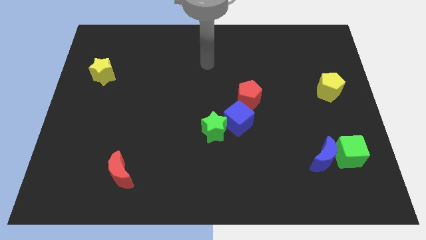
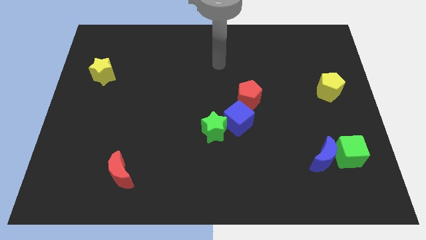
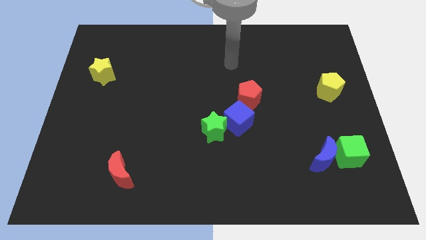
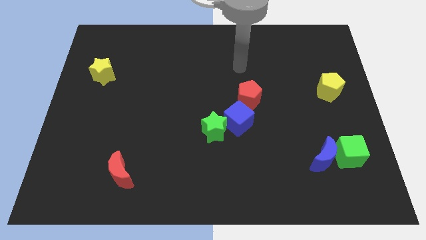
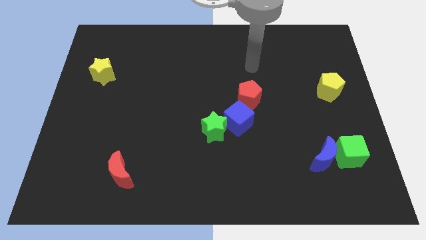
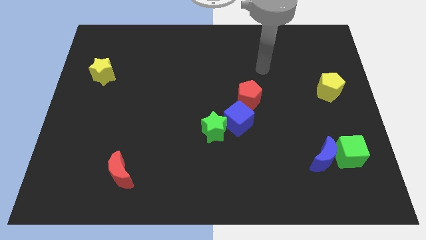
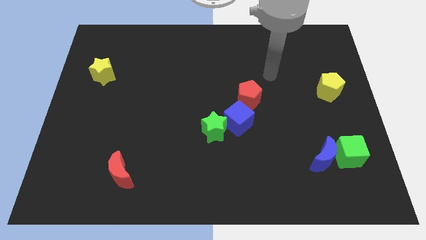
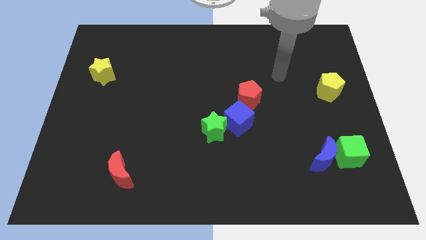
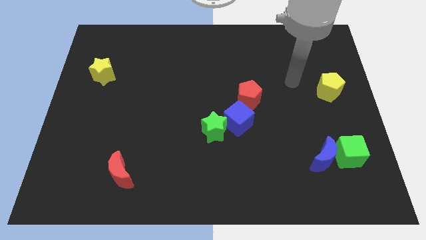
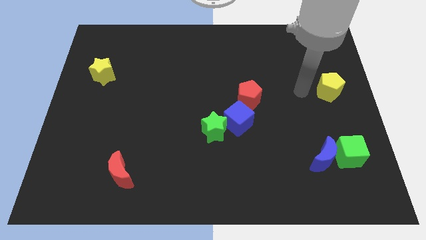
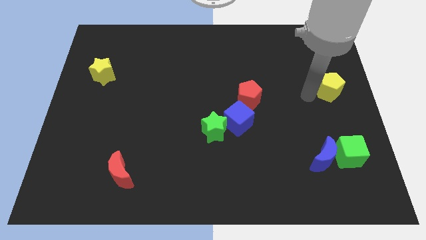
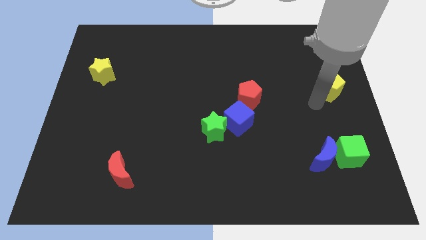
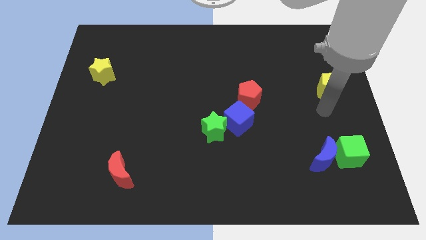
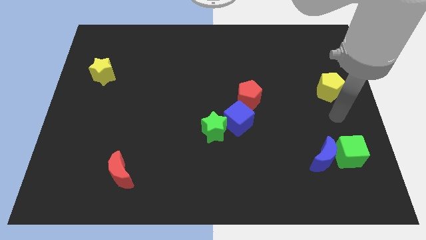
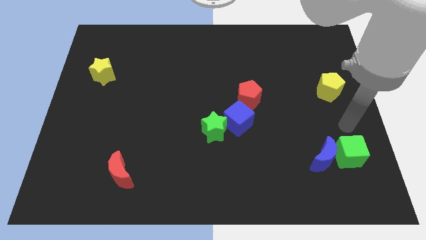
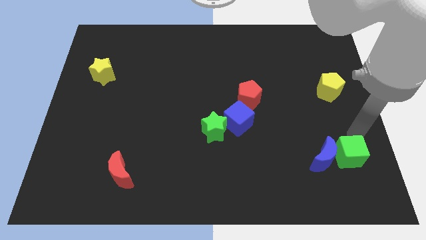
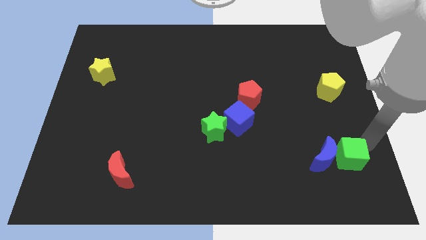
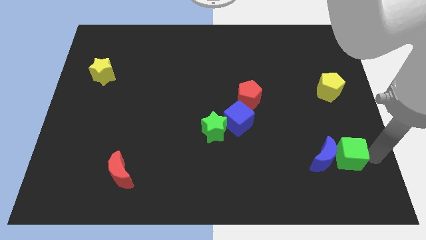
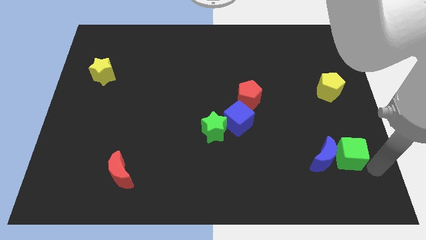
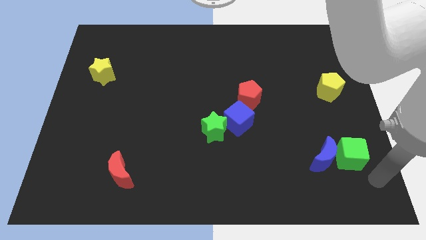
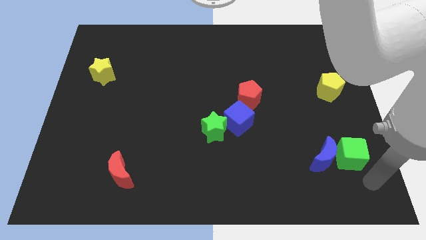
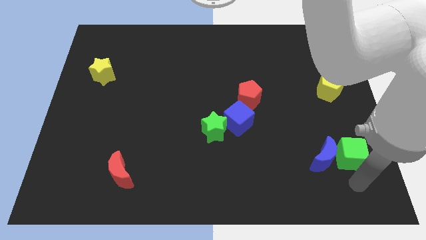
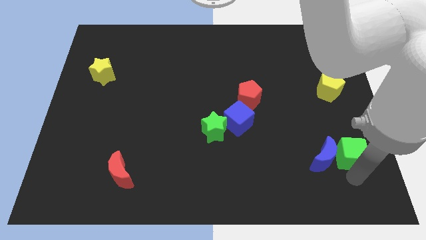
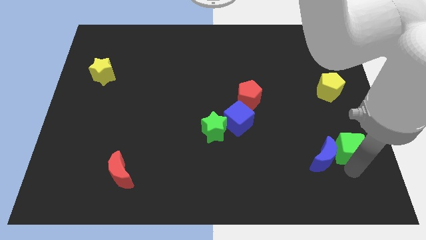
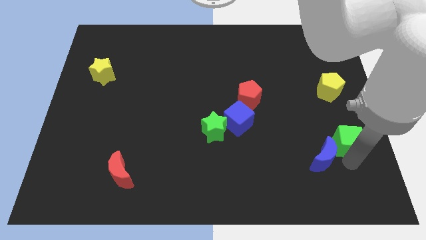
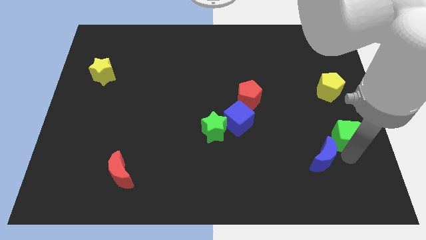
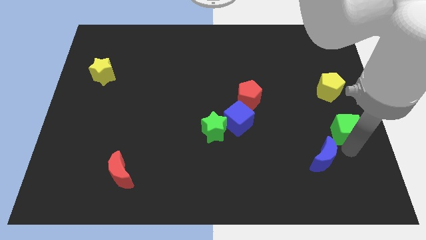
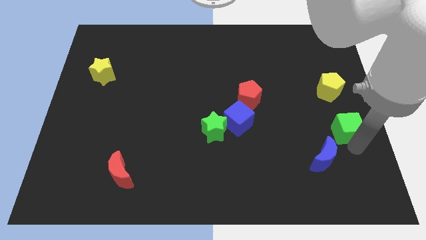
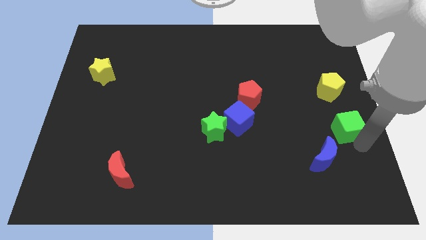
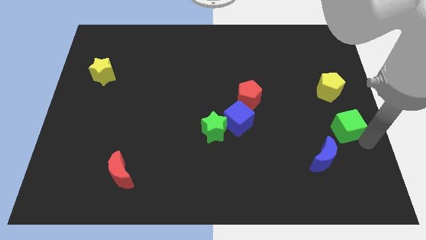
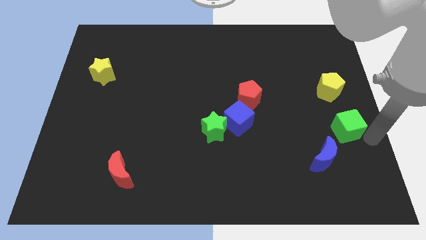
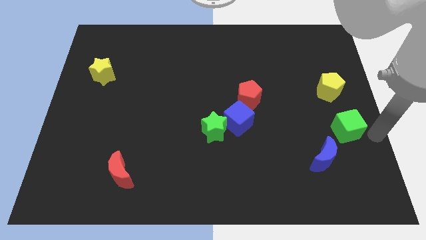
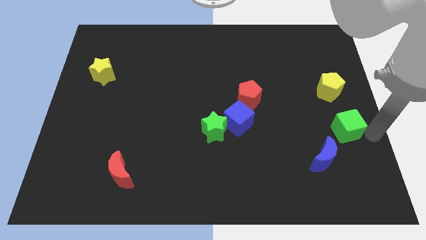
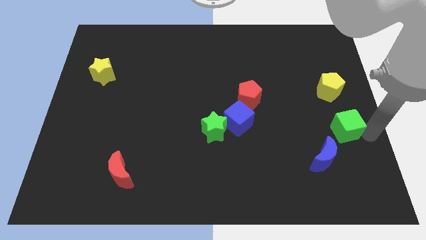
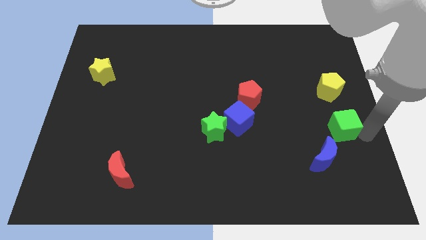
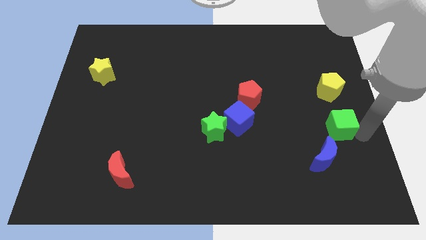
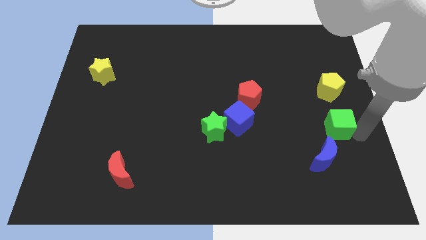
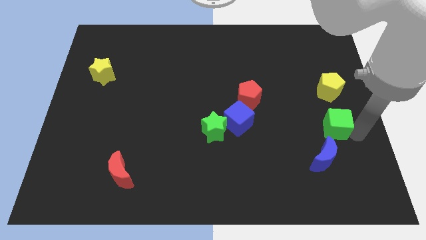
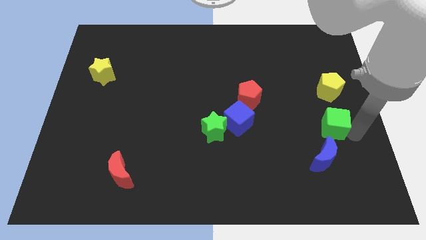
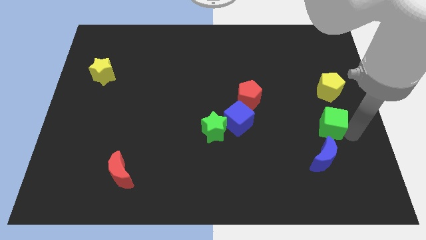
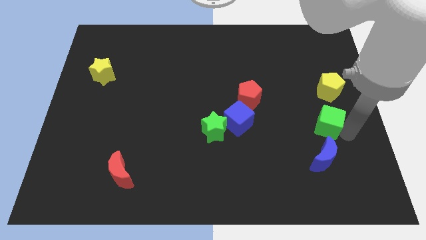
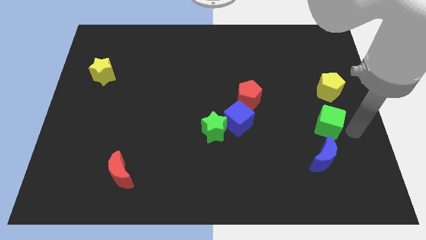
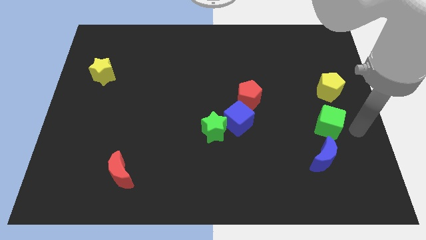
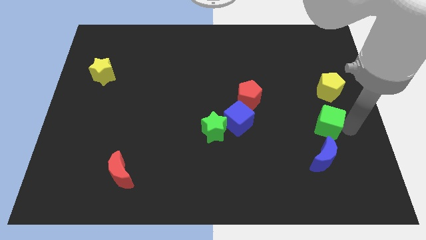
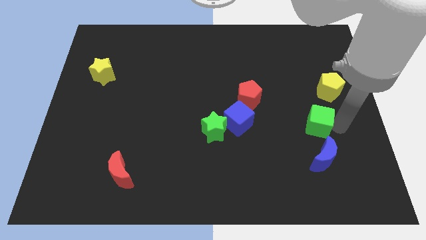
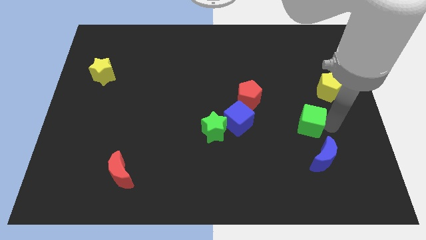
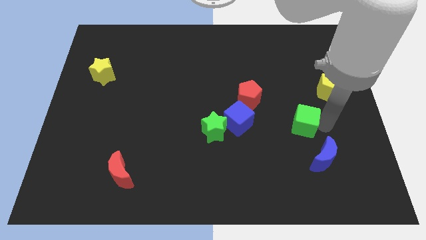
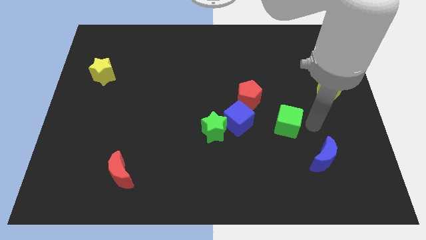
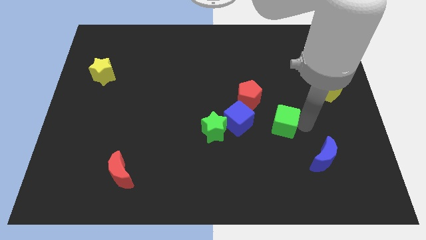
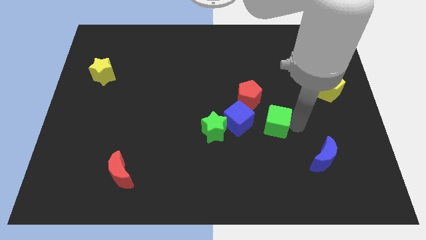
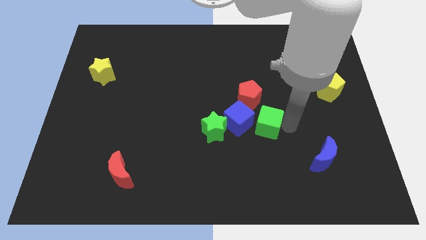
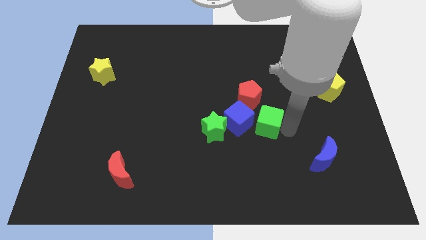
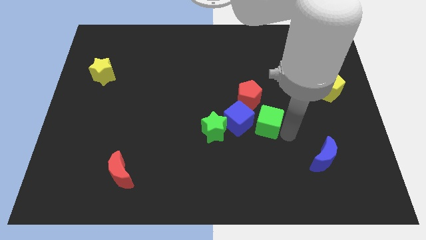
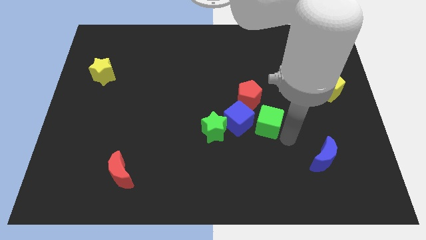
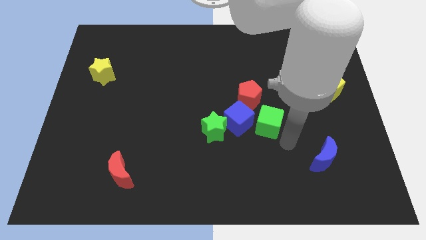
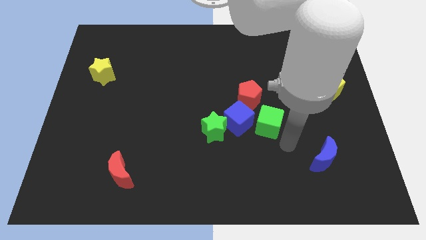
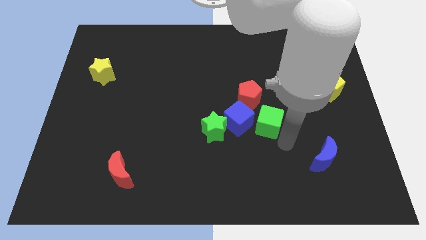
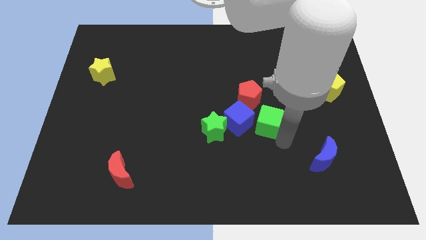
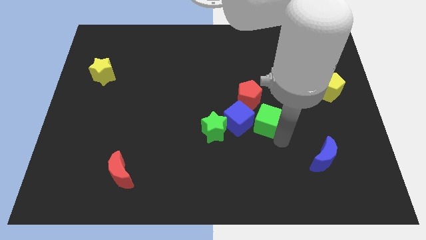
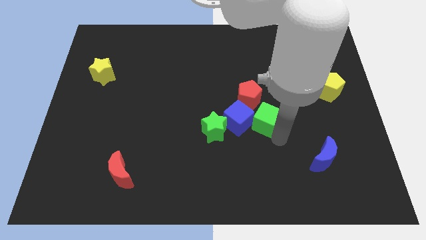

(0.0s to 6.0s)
push the green cube to the blue cube

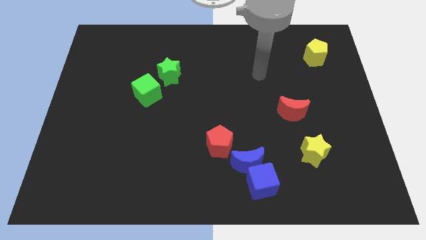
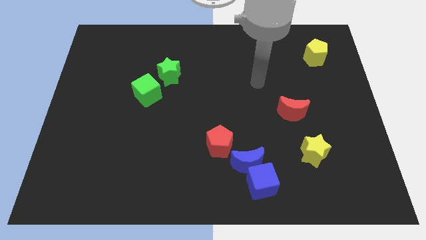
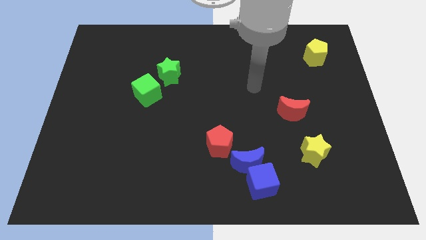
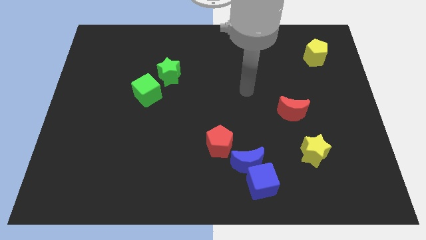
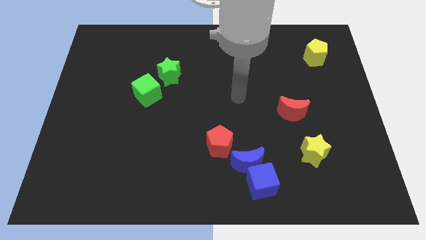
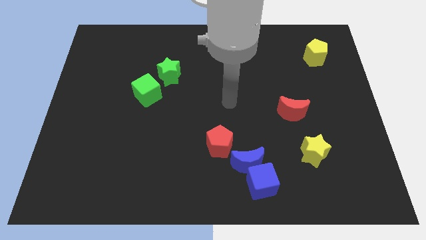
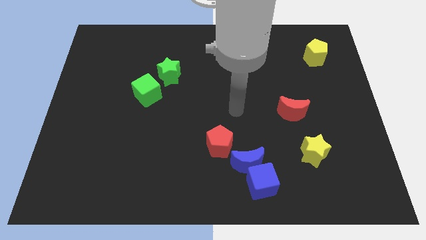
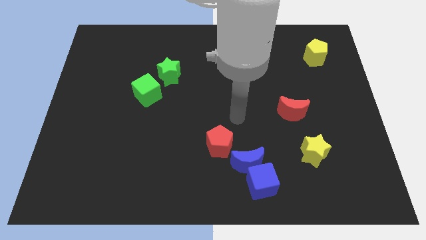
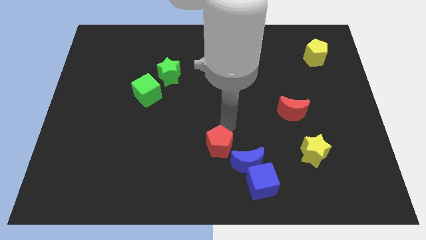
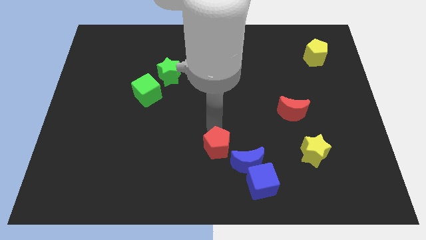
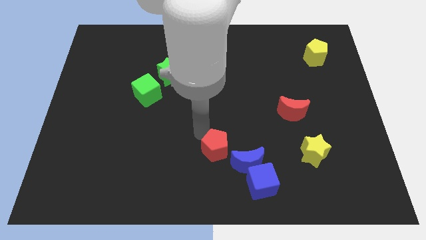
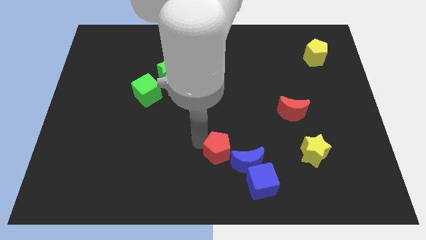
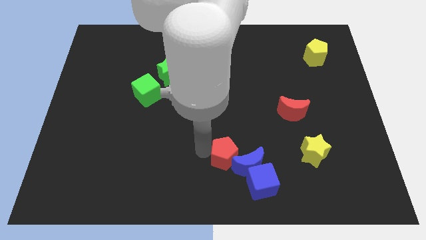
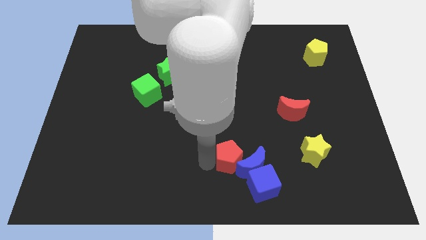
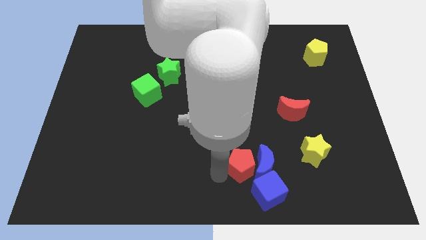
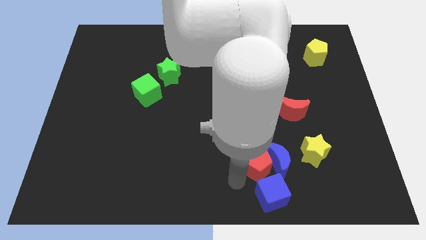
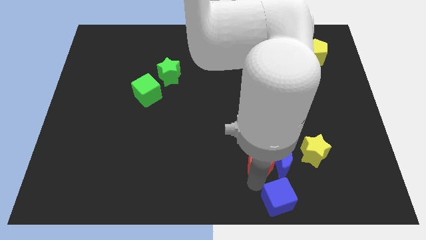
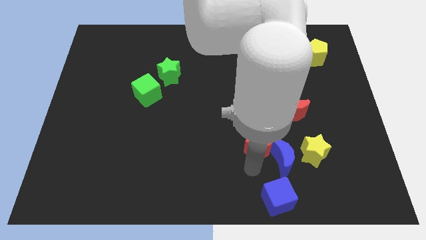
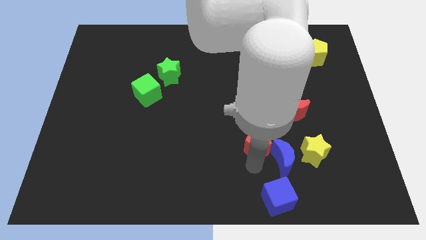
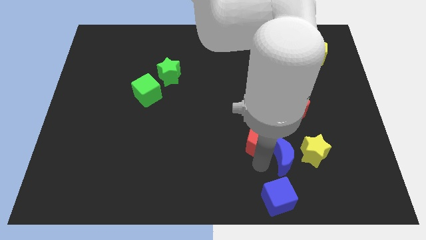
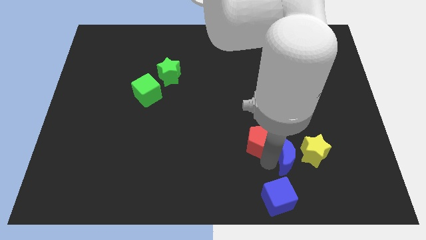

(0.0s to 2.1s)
move the blue moon towards the yellow star
